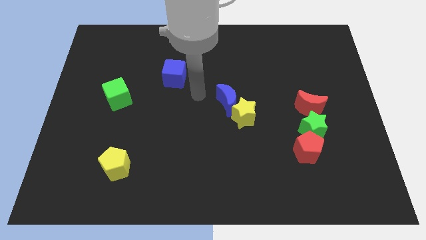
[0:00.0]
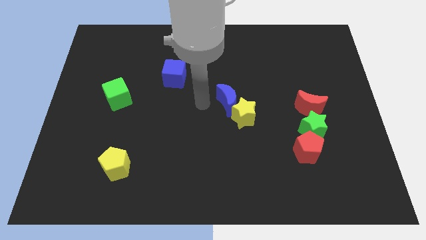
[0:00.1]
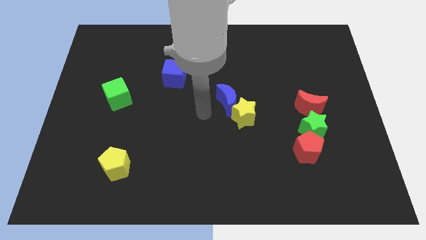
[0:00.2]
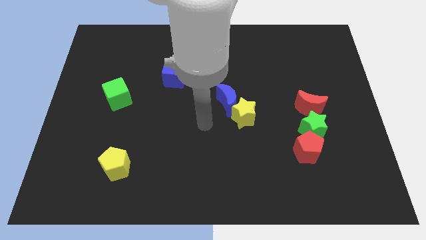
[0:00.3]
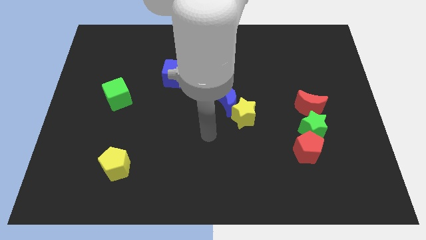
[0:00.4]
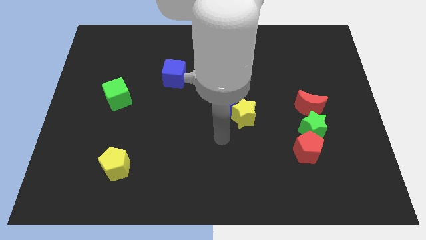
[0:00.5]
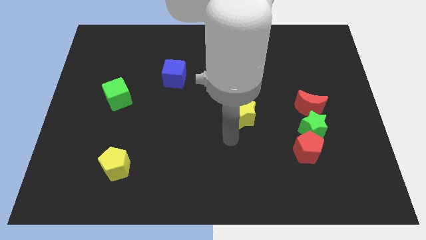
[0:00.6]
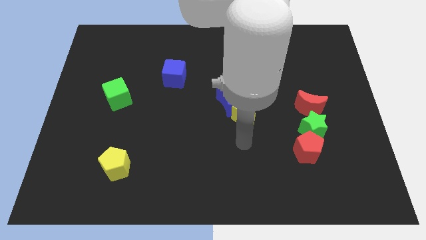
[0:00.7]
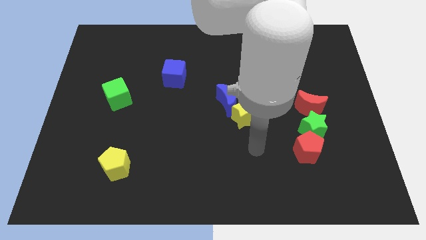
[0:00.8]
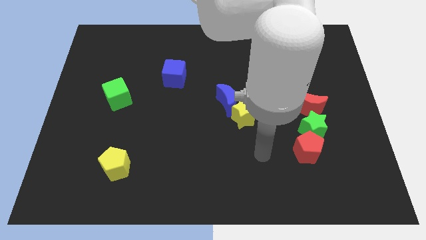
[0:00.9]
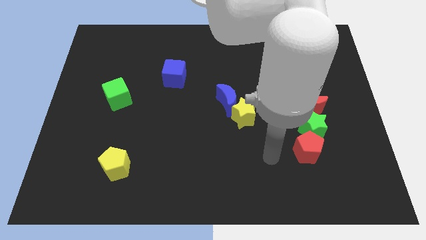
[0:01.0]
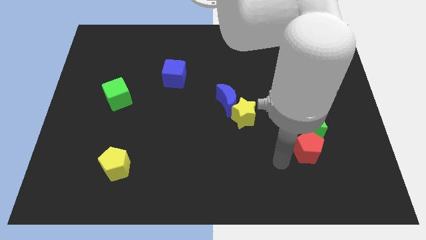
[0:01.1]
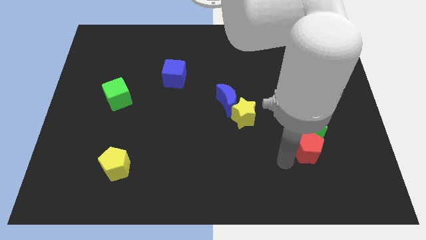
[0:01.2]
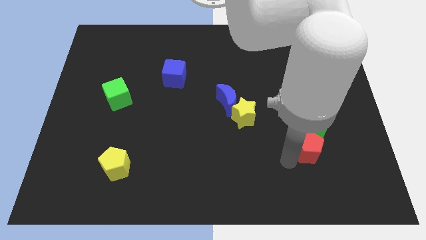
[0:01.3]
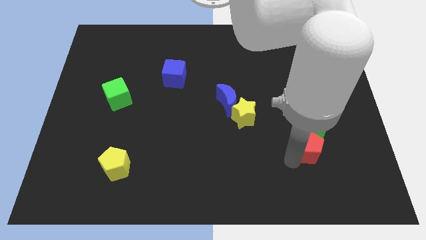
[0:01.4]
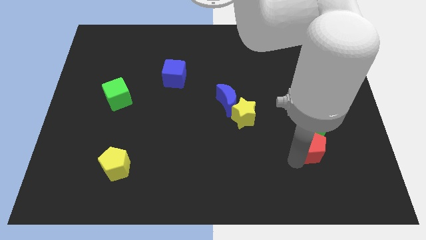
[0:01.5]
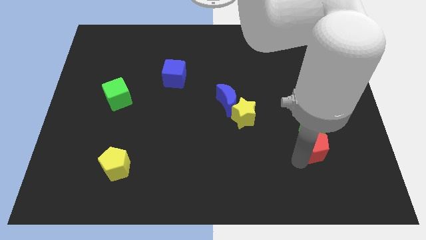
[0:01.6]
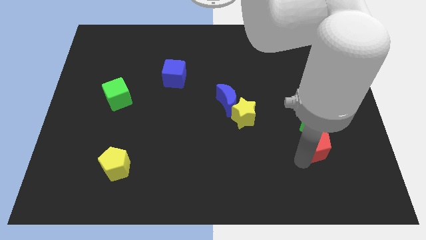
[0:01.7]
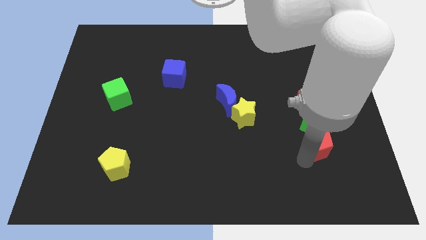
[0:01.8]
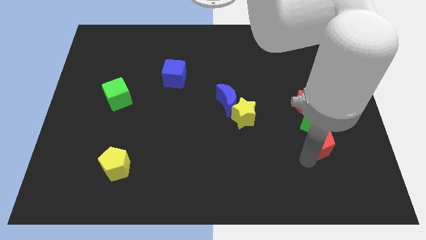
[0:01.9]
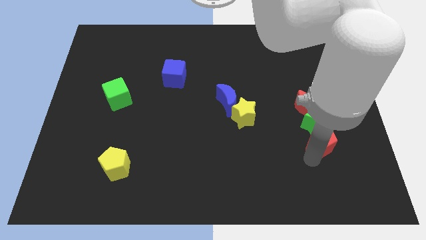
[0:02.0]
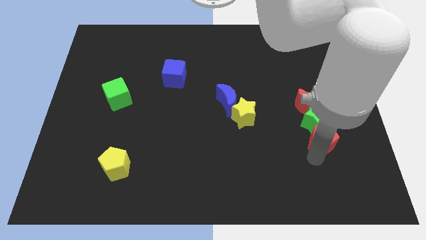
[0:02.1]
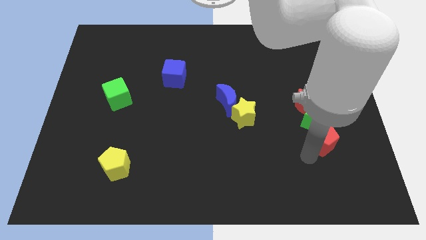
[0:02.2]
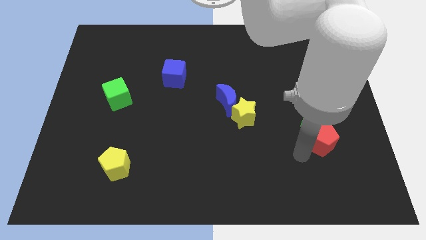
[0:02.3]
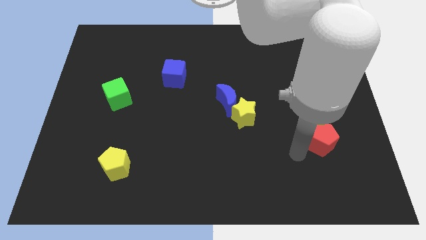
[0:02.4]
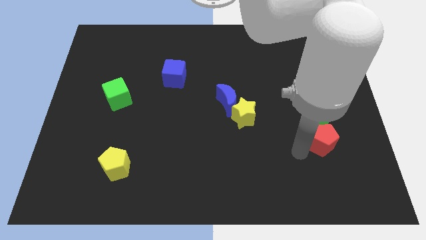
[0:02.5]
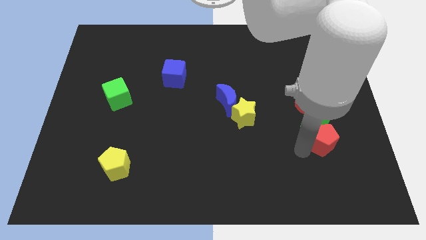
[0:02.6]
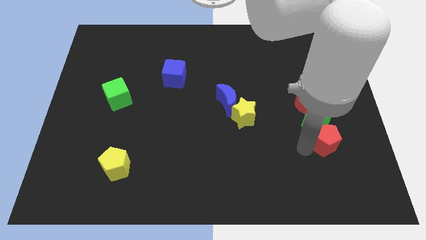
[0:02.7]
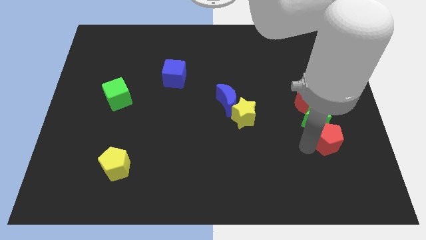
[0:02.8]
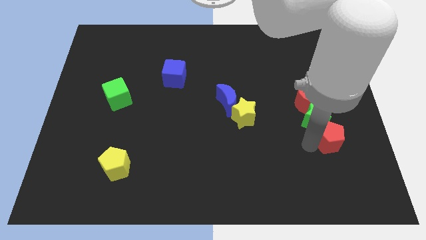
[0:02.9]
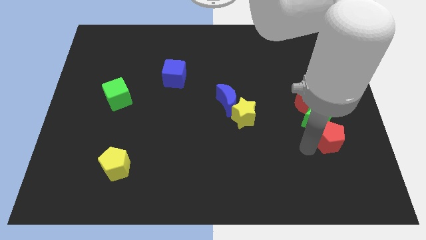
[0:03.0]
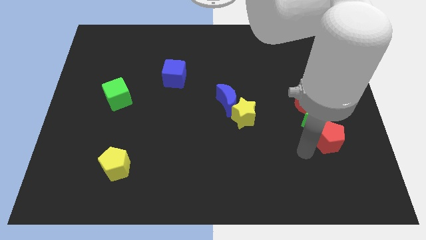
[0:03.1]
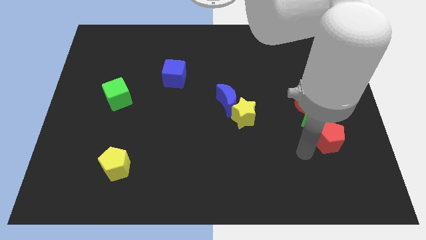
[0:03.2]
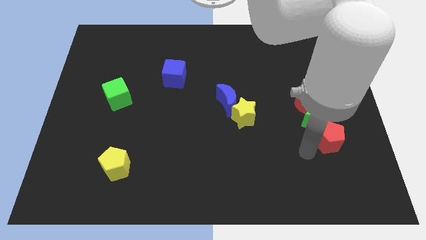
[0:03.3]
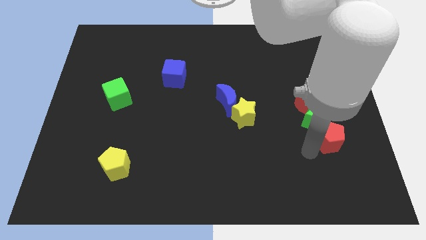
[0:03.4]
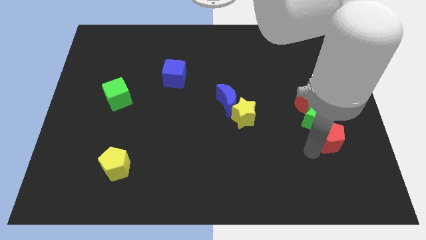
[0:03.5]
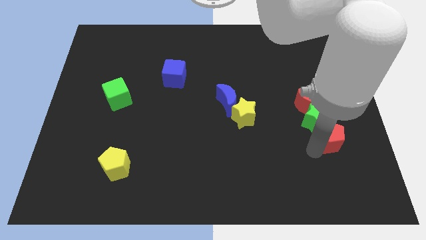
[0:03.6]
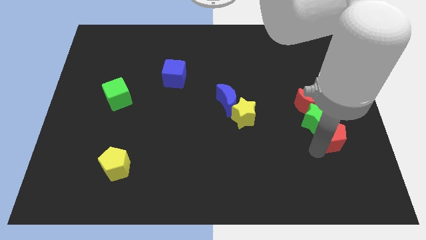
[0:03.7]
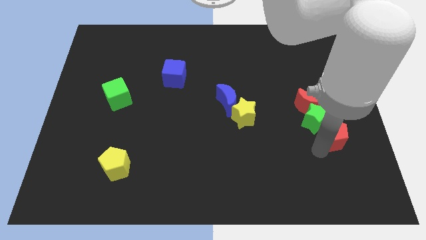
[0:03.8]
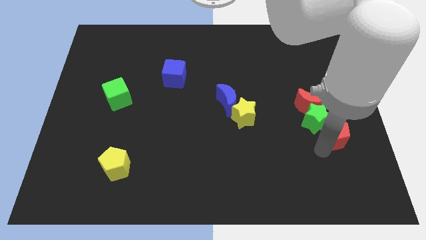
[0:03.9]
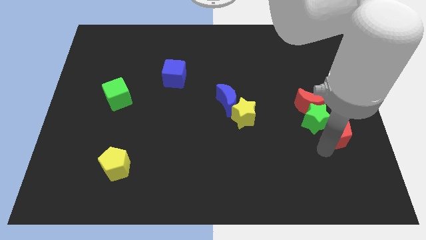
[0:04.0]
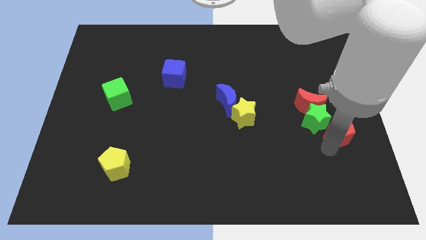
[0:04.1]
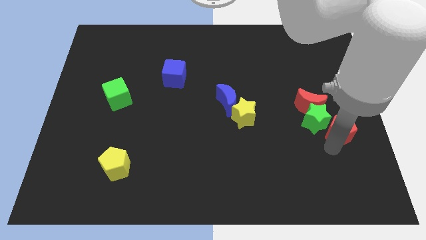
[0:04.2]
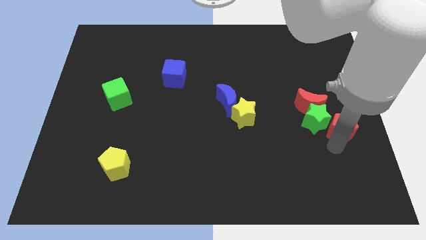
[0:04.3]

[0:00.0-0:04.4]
push the red pentagon to the right side of the board

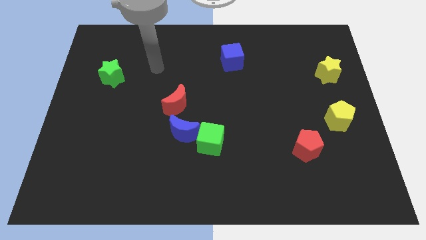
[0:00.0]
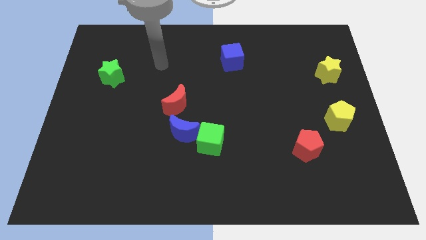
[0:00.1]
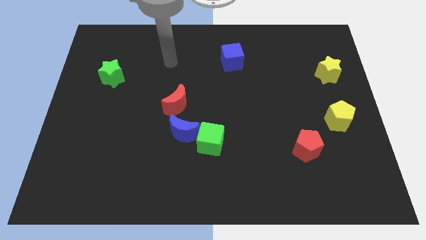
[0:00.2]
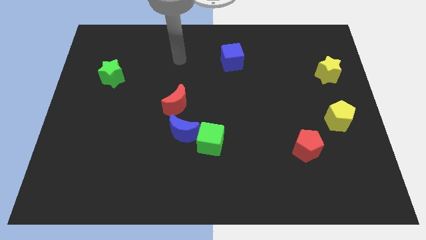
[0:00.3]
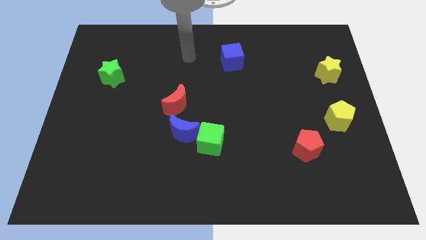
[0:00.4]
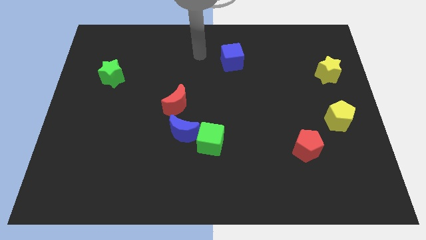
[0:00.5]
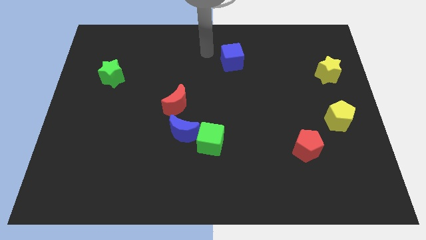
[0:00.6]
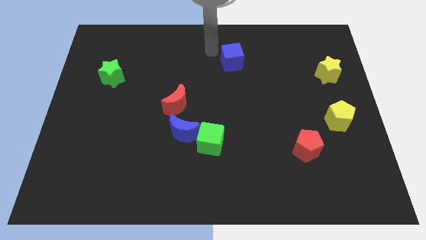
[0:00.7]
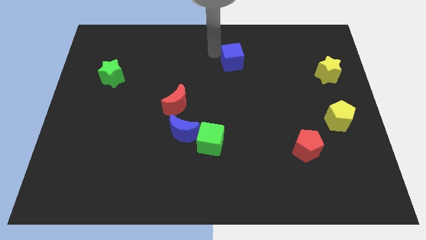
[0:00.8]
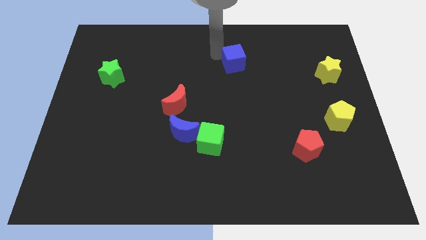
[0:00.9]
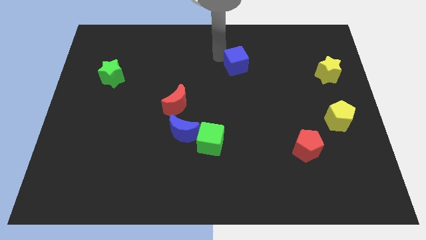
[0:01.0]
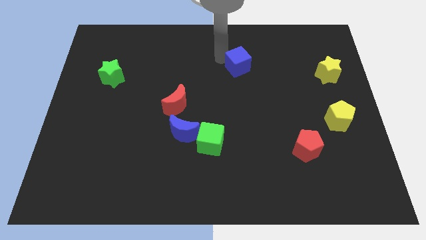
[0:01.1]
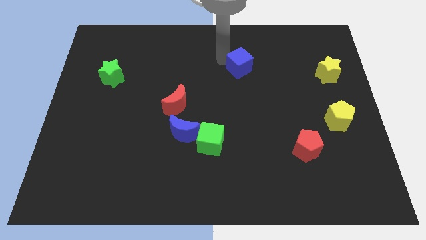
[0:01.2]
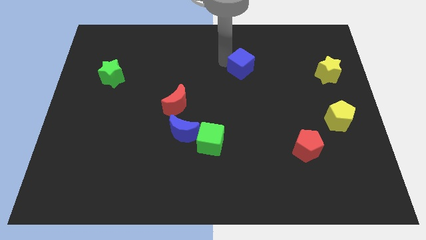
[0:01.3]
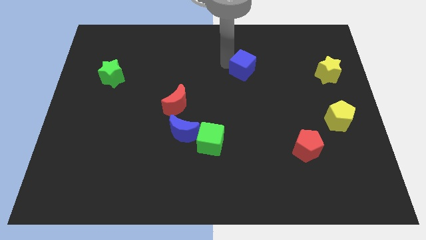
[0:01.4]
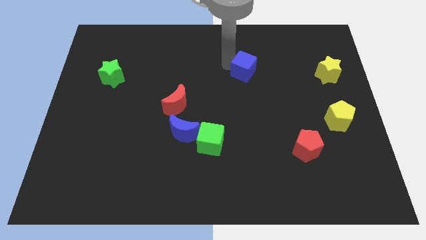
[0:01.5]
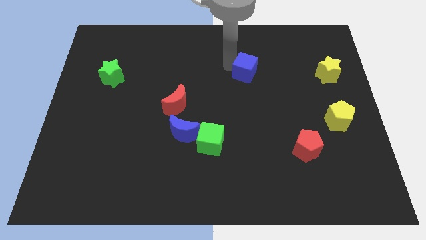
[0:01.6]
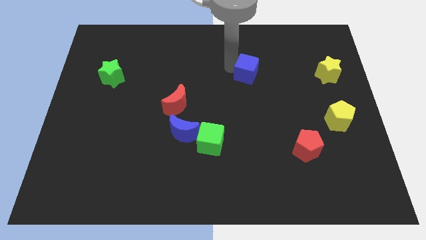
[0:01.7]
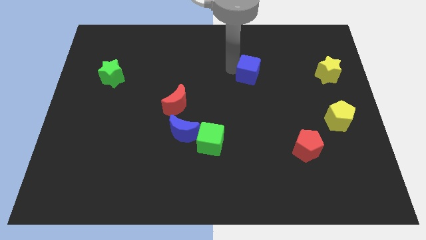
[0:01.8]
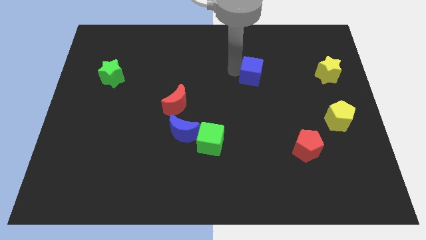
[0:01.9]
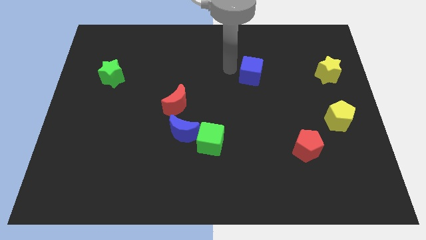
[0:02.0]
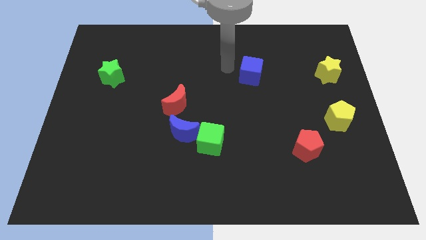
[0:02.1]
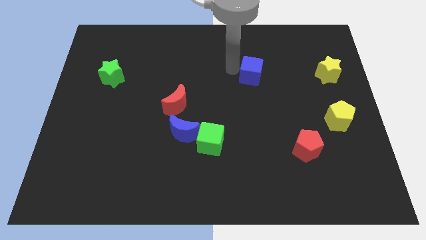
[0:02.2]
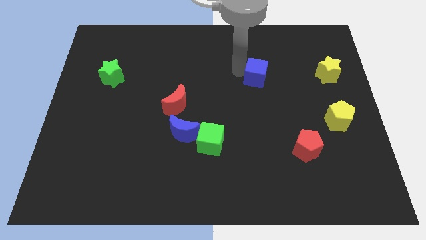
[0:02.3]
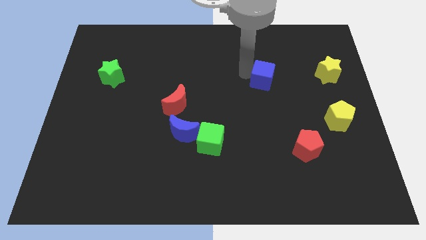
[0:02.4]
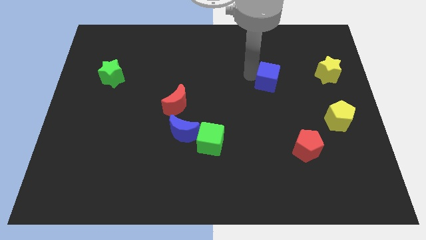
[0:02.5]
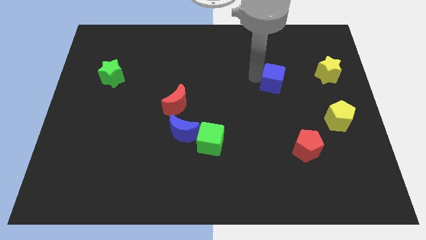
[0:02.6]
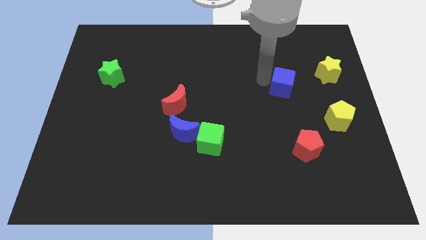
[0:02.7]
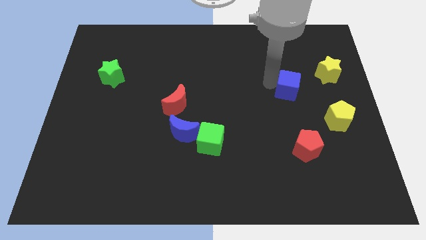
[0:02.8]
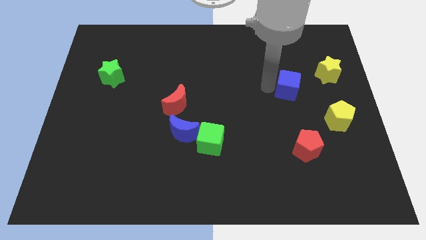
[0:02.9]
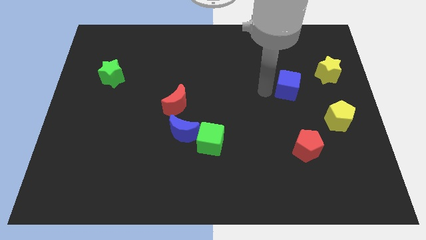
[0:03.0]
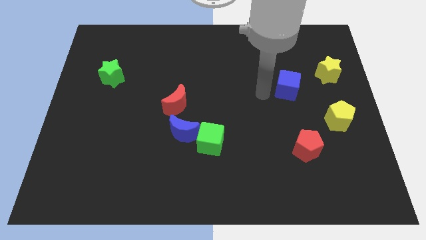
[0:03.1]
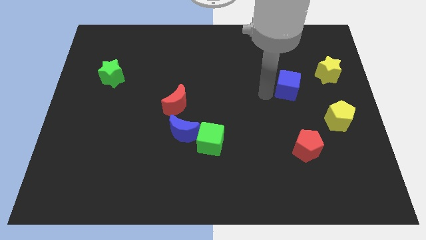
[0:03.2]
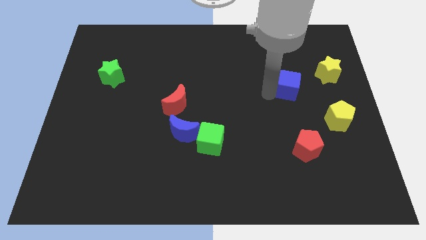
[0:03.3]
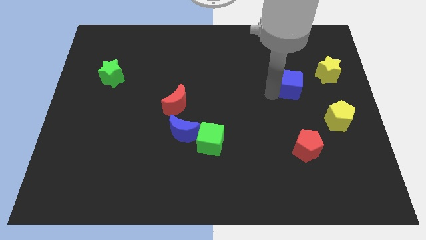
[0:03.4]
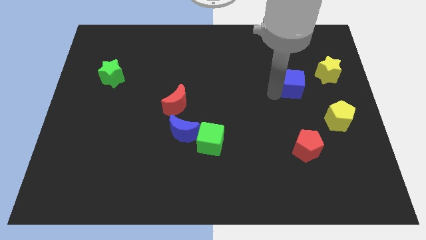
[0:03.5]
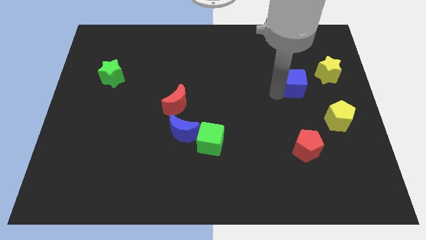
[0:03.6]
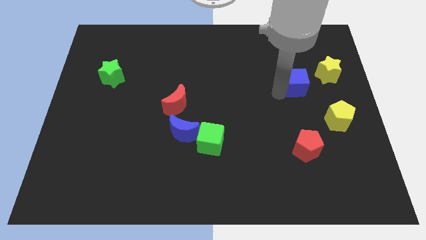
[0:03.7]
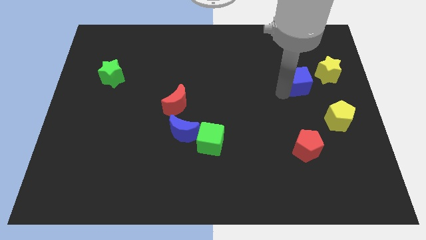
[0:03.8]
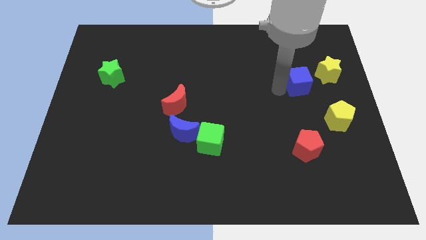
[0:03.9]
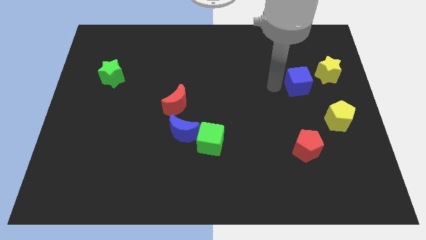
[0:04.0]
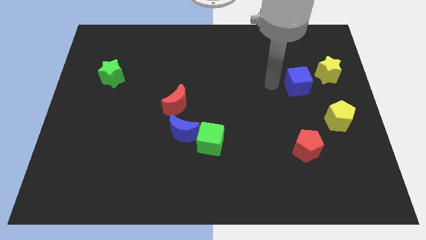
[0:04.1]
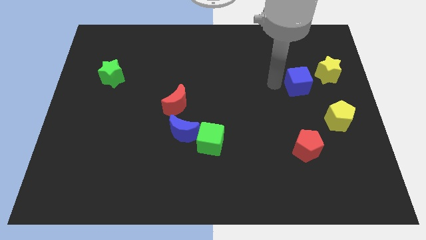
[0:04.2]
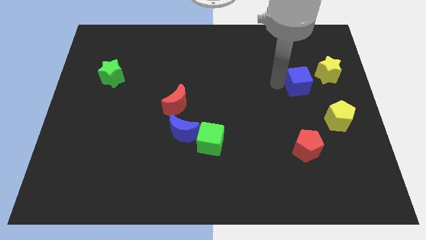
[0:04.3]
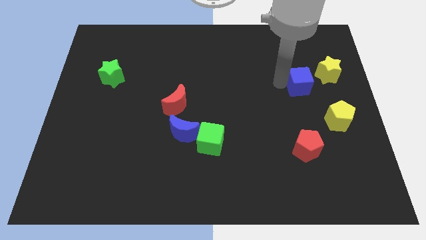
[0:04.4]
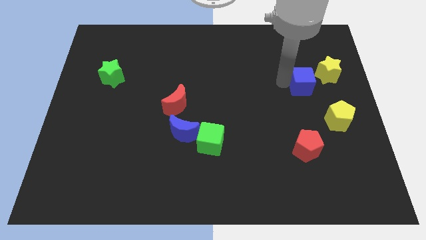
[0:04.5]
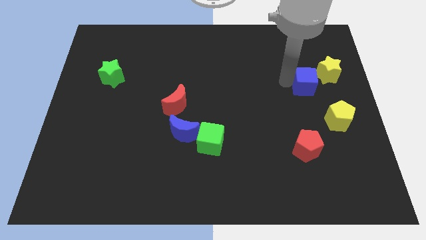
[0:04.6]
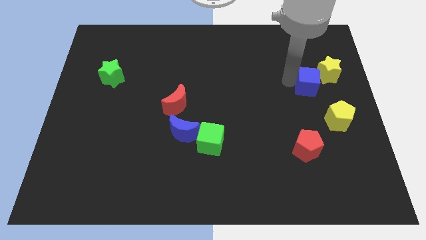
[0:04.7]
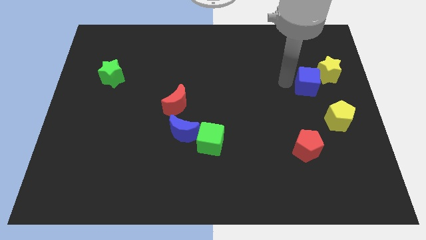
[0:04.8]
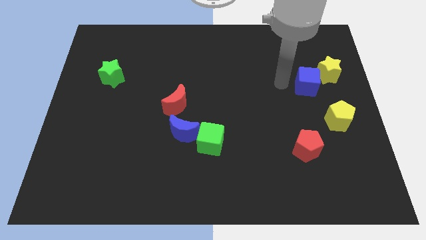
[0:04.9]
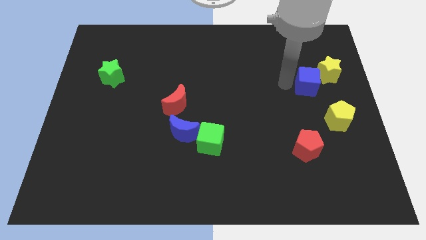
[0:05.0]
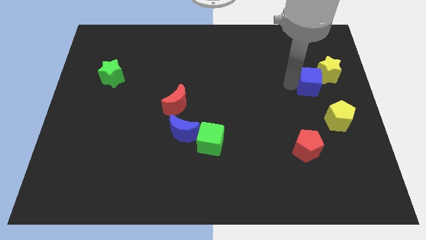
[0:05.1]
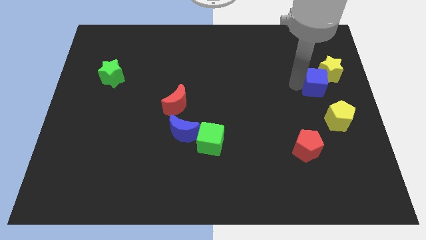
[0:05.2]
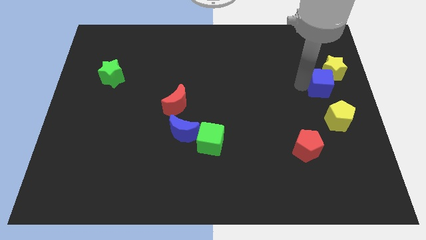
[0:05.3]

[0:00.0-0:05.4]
slide the blue cube to the right side of the board
